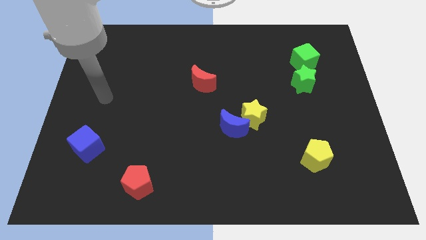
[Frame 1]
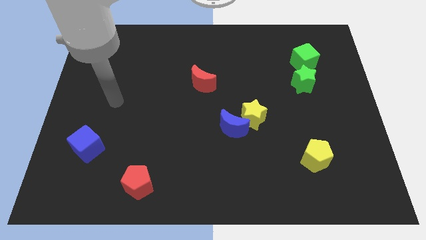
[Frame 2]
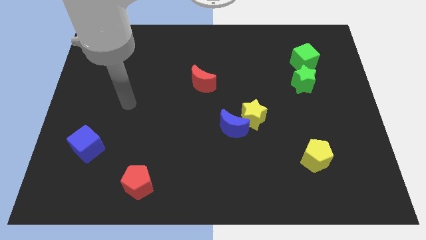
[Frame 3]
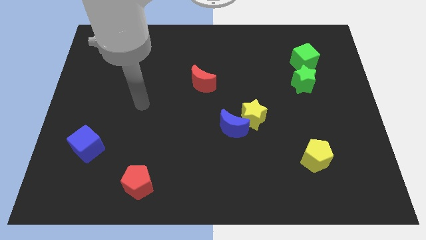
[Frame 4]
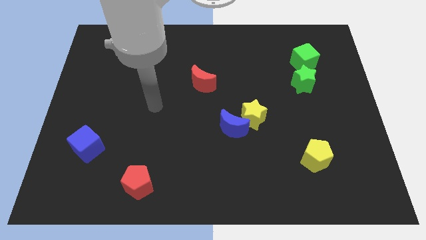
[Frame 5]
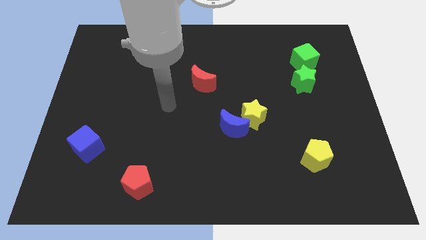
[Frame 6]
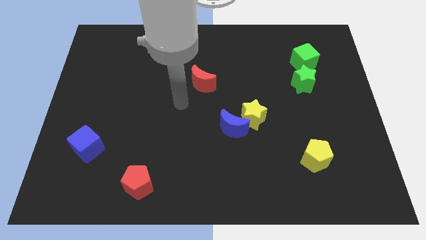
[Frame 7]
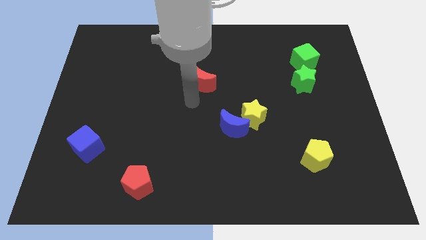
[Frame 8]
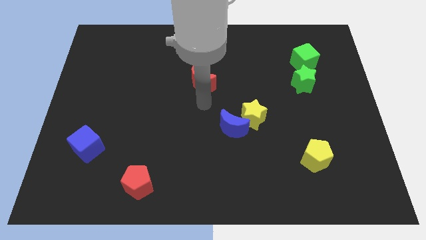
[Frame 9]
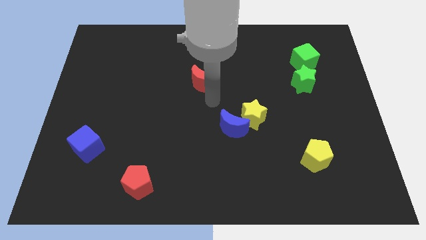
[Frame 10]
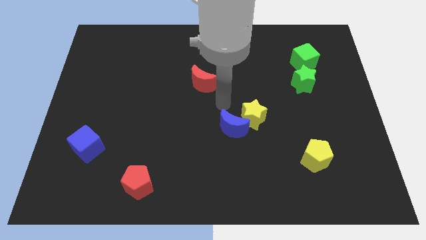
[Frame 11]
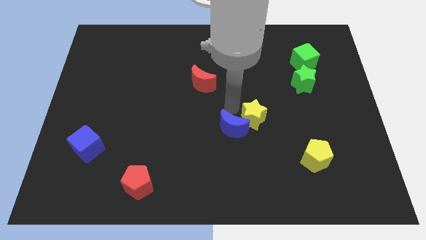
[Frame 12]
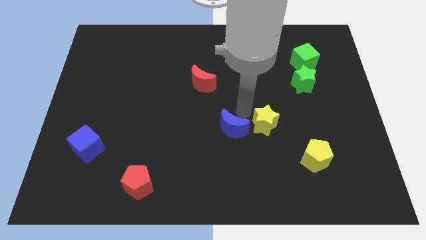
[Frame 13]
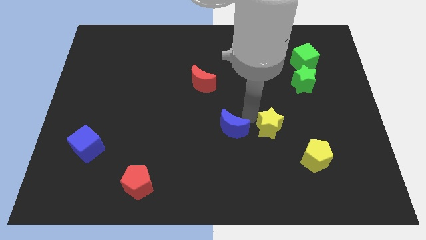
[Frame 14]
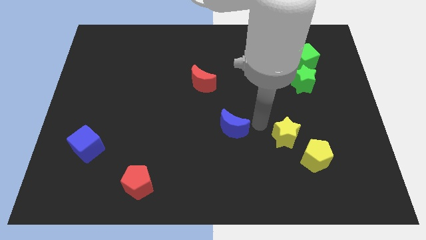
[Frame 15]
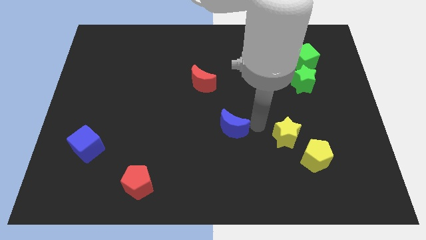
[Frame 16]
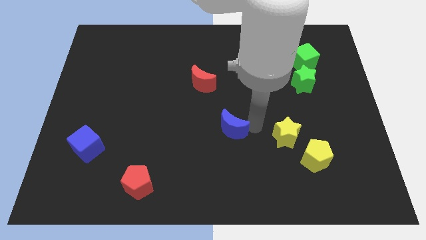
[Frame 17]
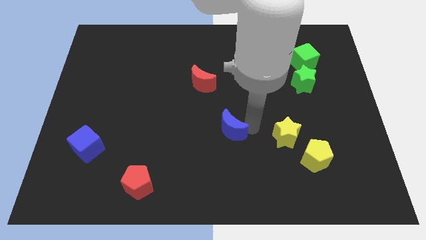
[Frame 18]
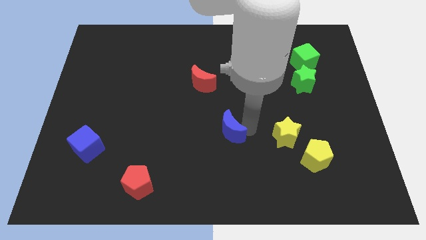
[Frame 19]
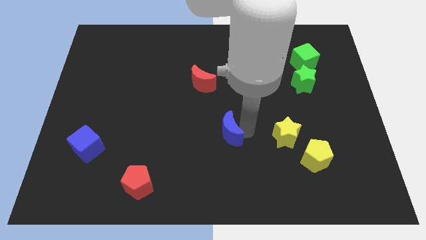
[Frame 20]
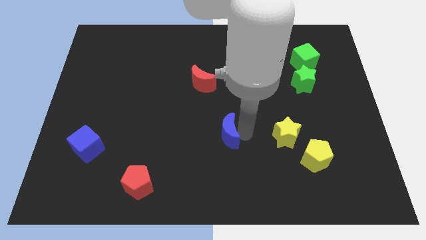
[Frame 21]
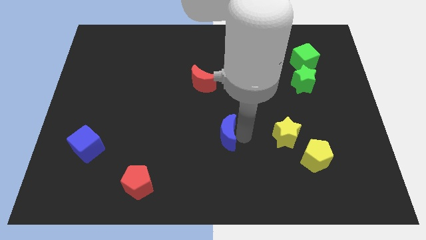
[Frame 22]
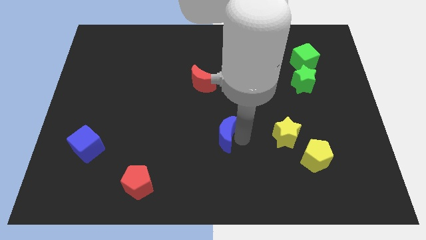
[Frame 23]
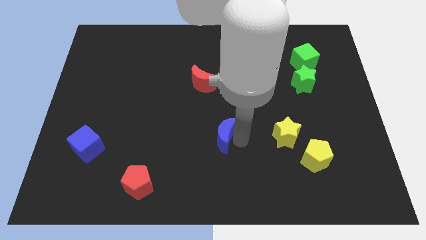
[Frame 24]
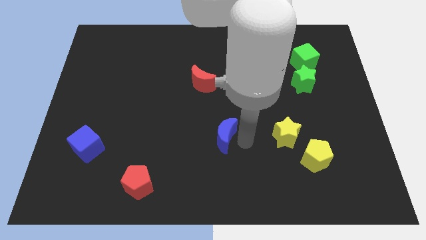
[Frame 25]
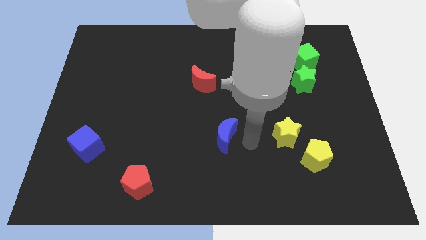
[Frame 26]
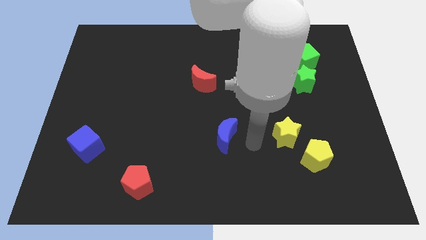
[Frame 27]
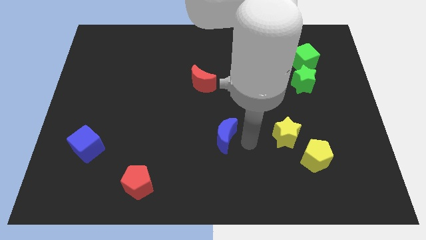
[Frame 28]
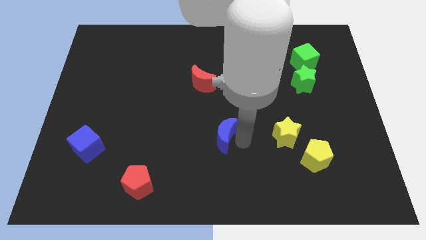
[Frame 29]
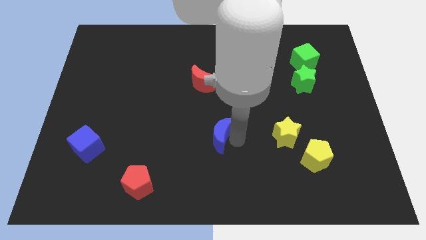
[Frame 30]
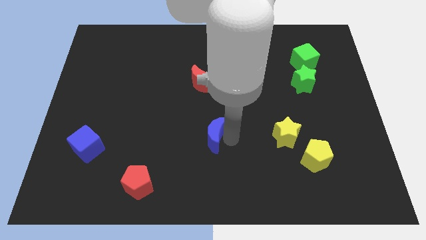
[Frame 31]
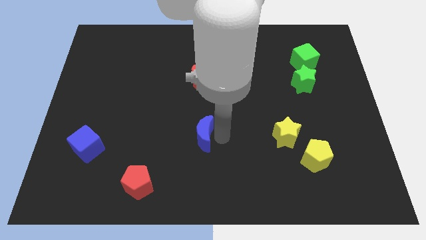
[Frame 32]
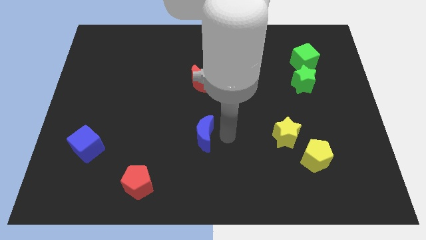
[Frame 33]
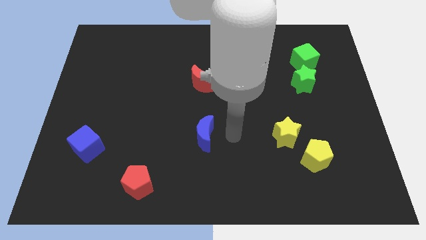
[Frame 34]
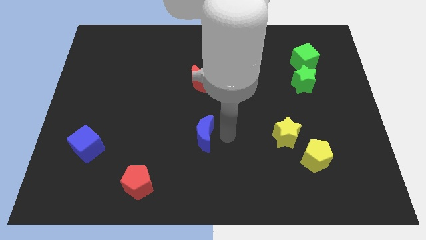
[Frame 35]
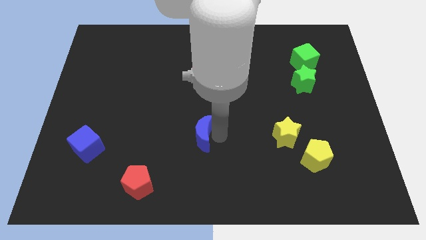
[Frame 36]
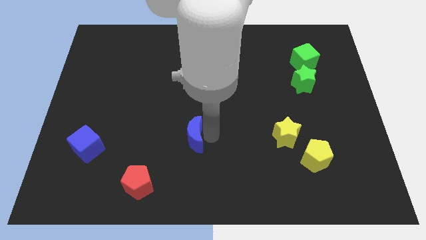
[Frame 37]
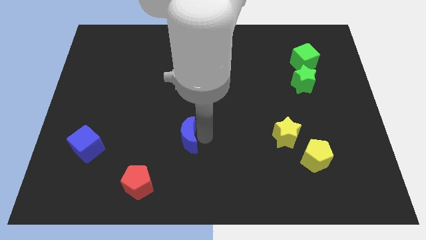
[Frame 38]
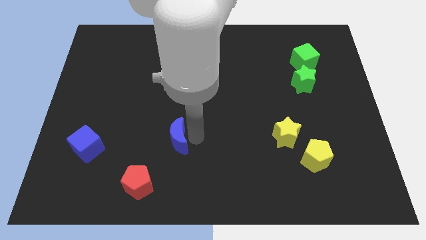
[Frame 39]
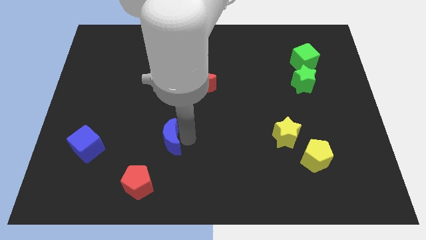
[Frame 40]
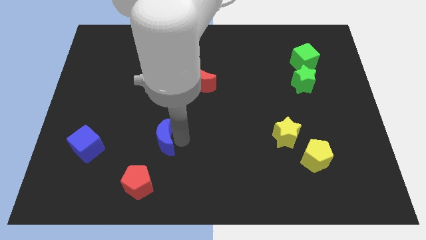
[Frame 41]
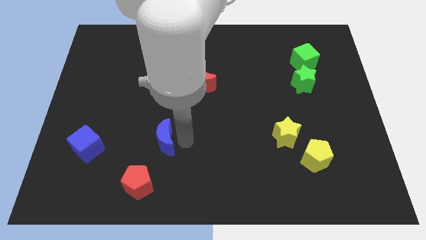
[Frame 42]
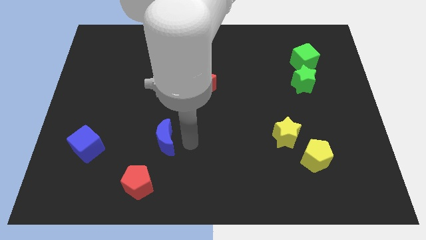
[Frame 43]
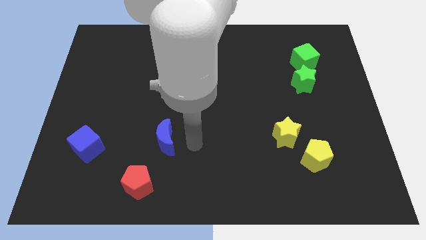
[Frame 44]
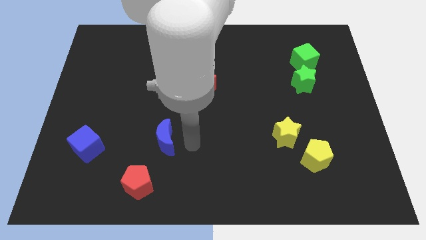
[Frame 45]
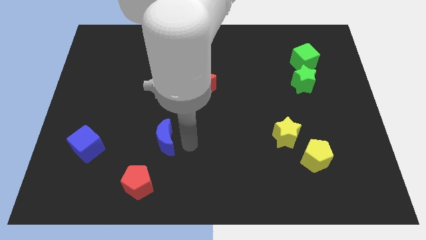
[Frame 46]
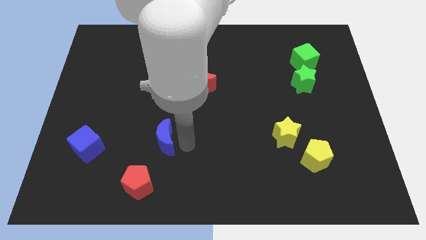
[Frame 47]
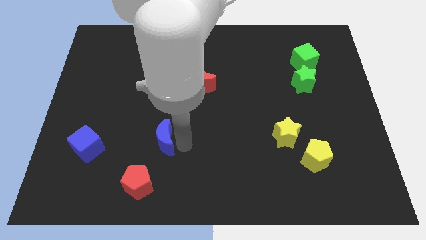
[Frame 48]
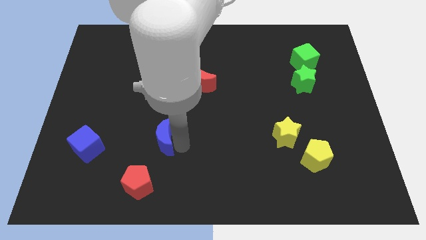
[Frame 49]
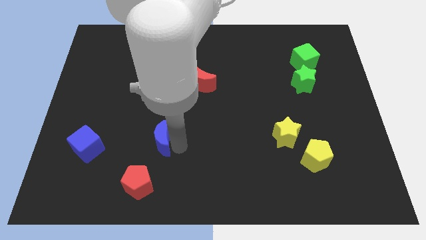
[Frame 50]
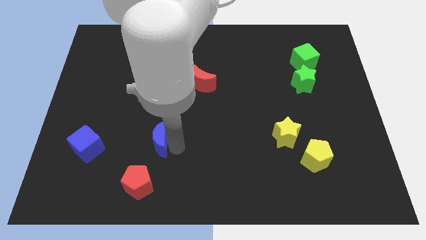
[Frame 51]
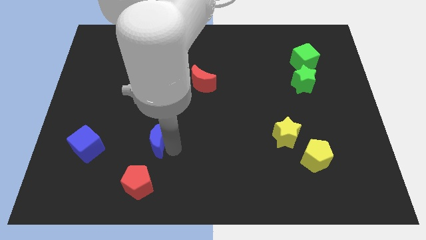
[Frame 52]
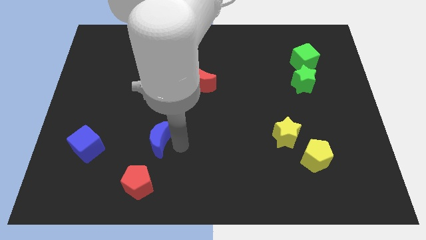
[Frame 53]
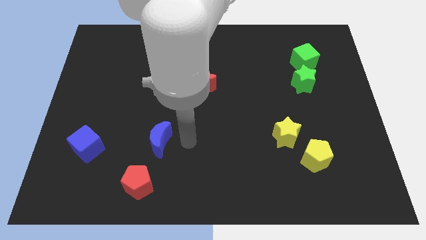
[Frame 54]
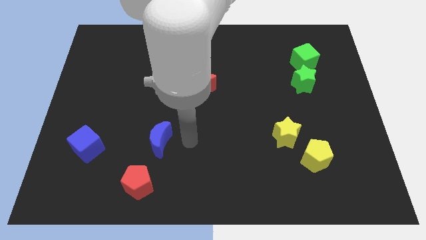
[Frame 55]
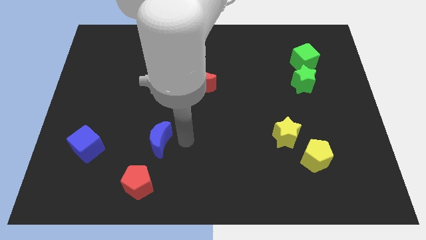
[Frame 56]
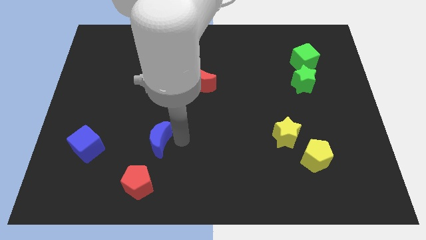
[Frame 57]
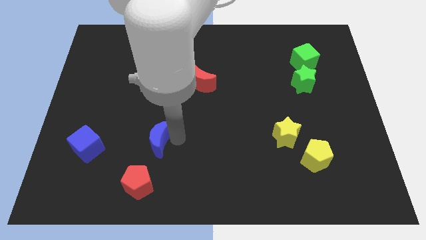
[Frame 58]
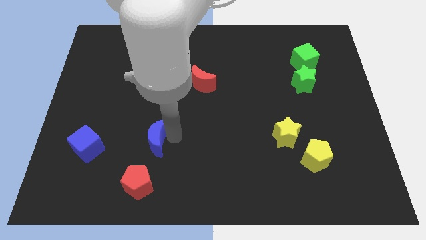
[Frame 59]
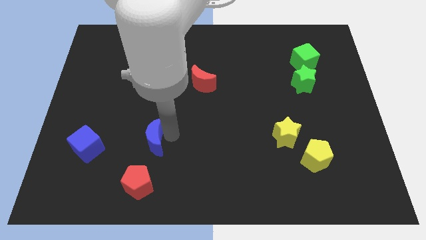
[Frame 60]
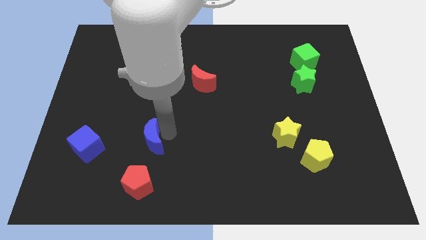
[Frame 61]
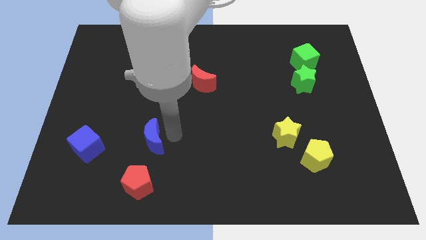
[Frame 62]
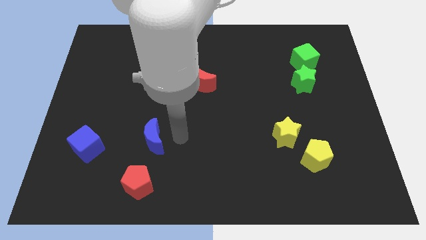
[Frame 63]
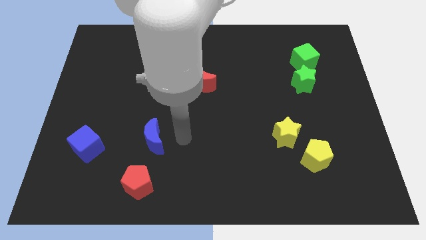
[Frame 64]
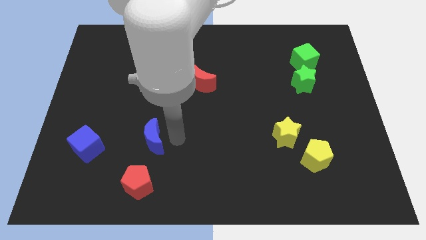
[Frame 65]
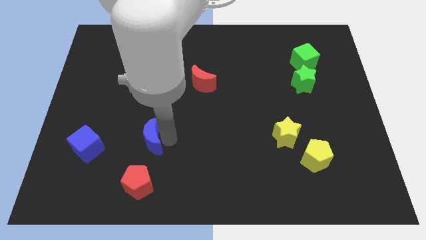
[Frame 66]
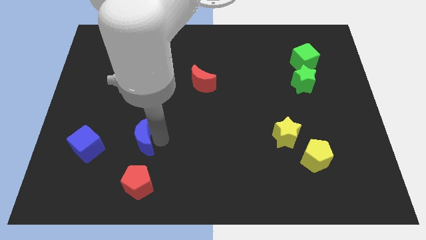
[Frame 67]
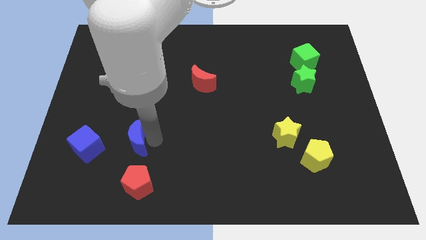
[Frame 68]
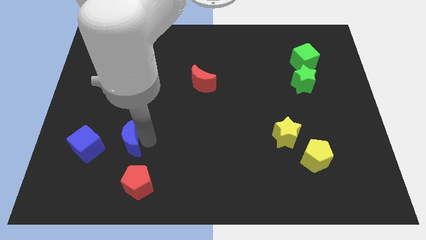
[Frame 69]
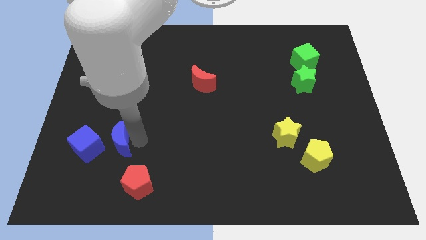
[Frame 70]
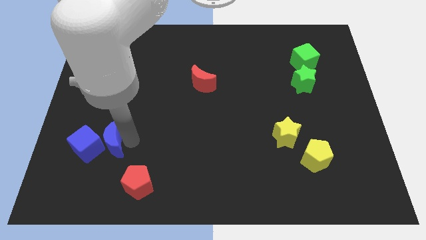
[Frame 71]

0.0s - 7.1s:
push the blue moon towards the blue cube
